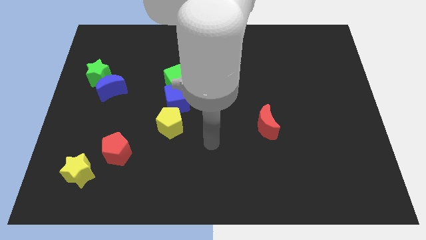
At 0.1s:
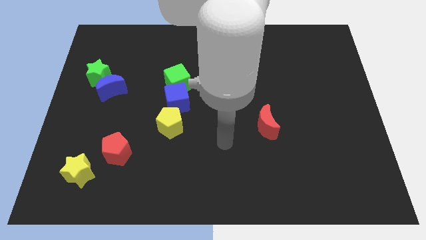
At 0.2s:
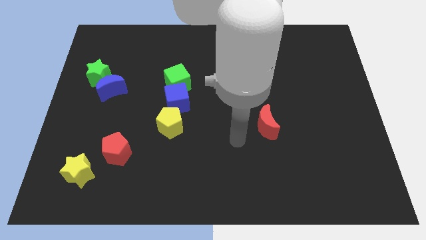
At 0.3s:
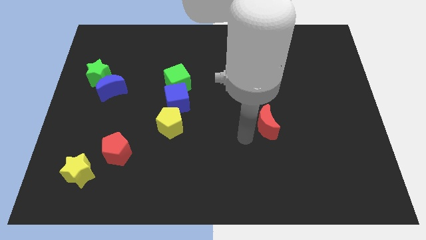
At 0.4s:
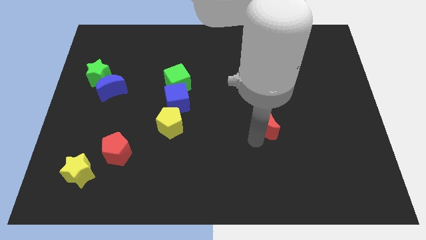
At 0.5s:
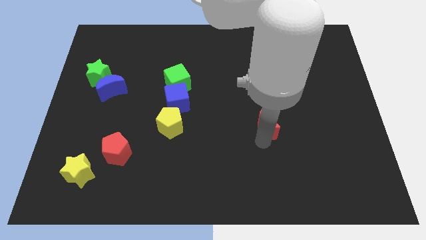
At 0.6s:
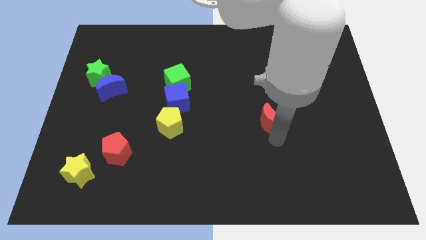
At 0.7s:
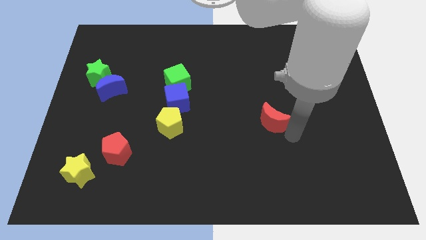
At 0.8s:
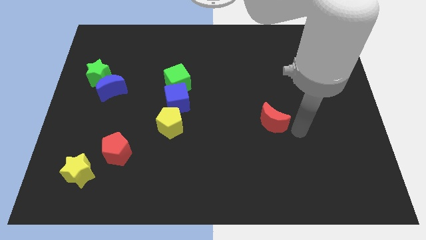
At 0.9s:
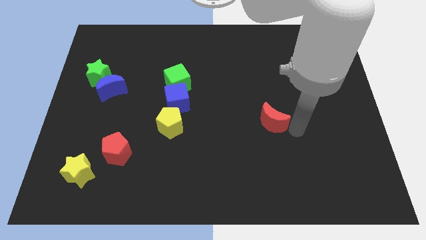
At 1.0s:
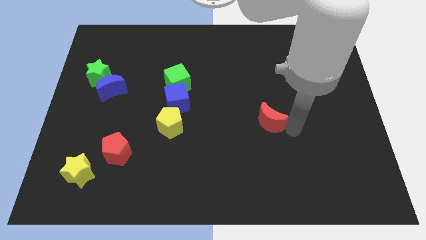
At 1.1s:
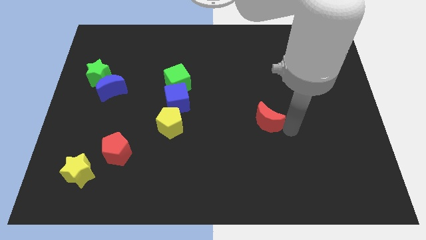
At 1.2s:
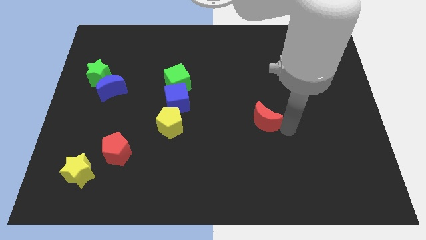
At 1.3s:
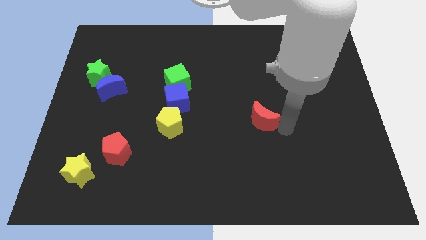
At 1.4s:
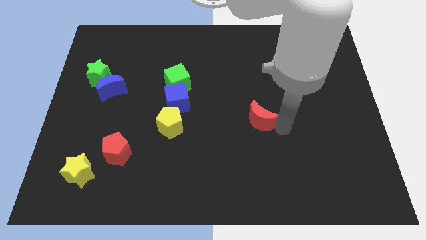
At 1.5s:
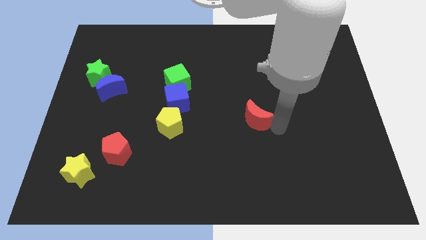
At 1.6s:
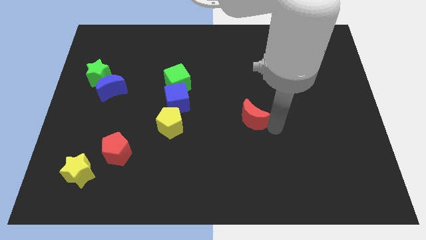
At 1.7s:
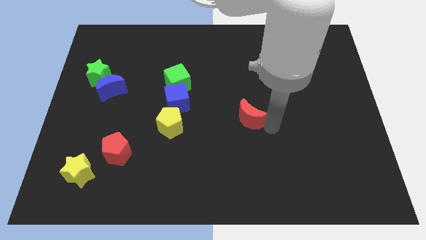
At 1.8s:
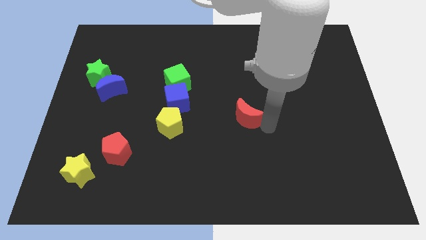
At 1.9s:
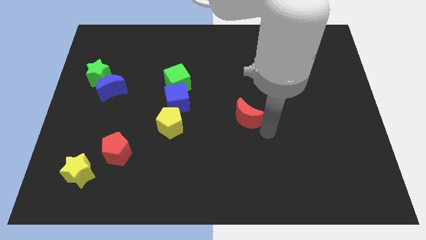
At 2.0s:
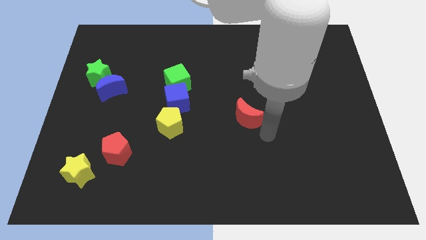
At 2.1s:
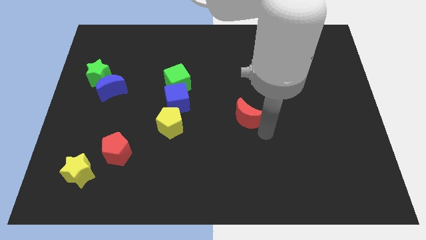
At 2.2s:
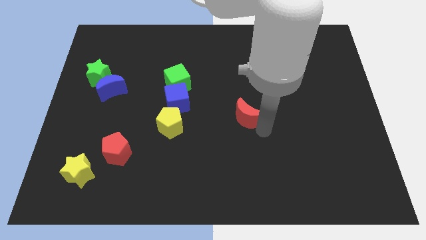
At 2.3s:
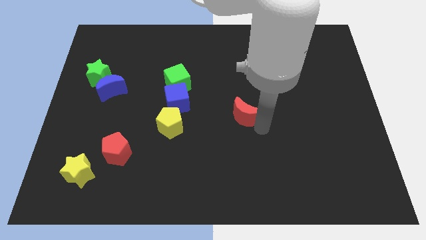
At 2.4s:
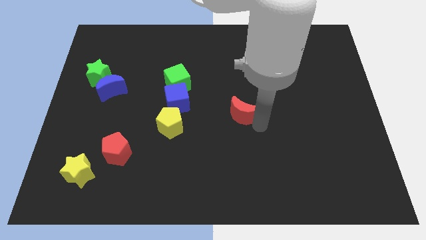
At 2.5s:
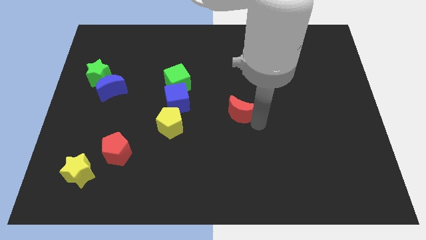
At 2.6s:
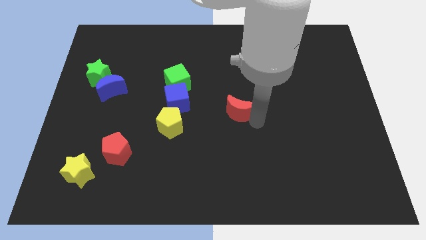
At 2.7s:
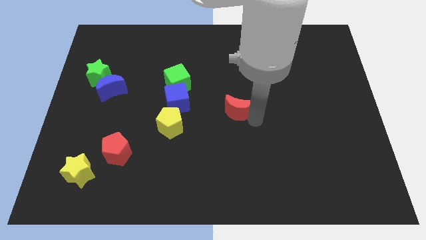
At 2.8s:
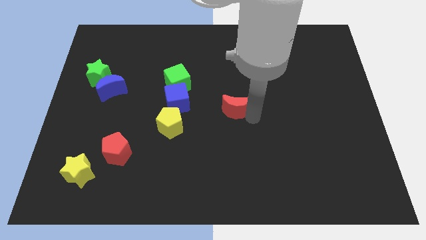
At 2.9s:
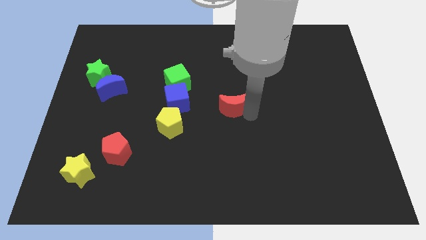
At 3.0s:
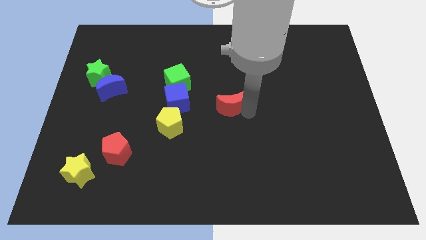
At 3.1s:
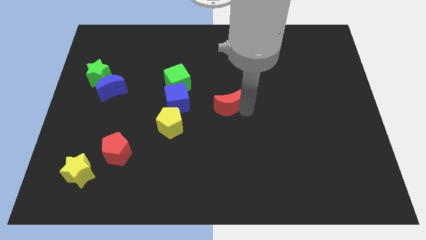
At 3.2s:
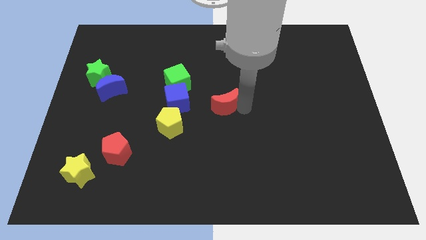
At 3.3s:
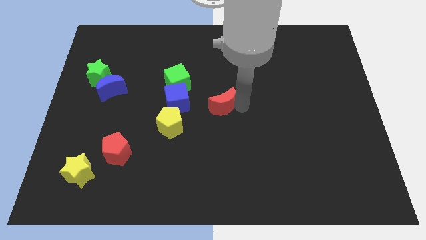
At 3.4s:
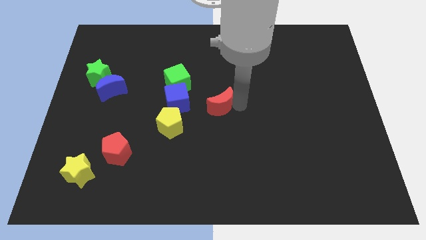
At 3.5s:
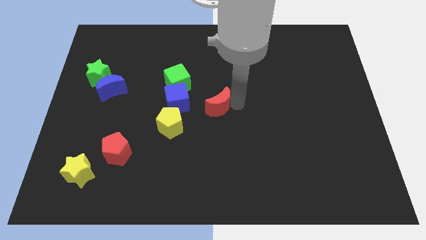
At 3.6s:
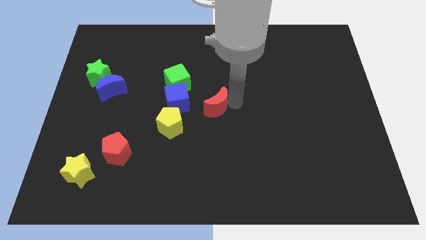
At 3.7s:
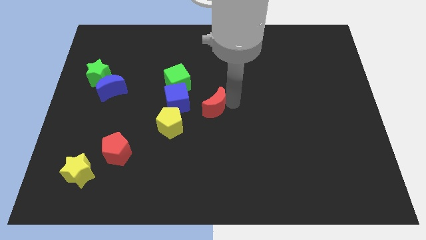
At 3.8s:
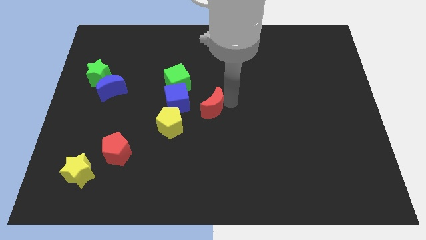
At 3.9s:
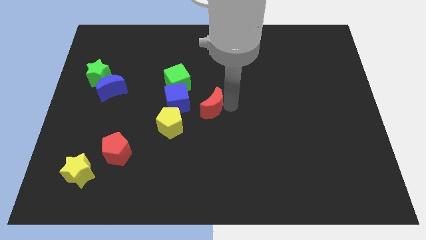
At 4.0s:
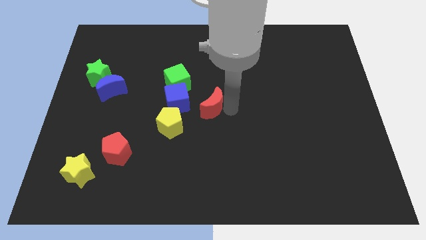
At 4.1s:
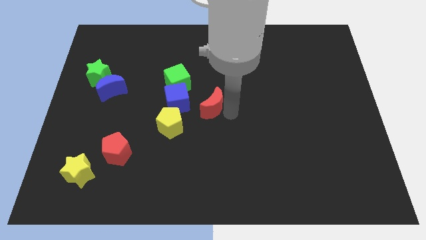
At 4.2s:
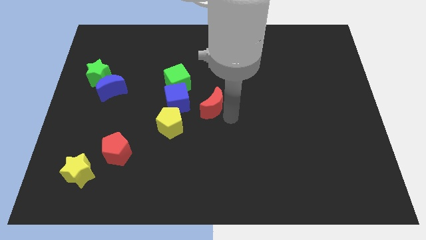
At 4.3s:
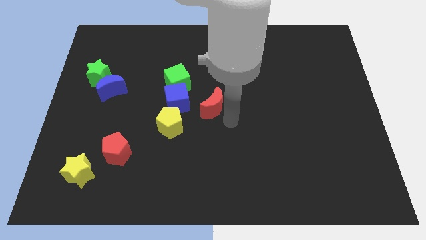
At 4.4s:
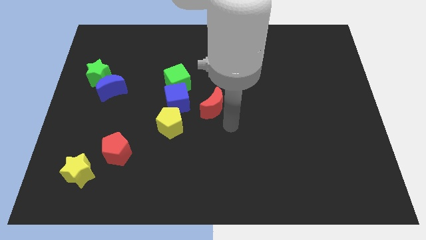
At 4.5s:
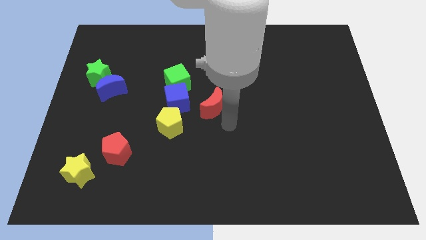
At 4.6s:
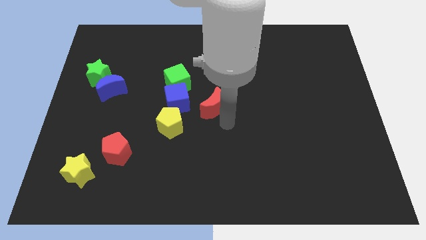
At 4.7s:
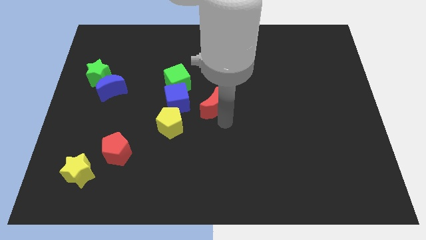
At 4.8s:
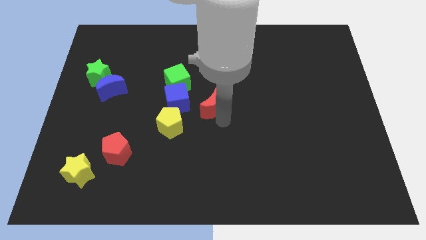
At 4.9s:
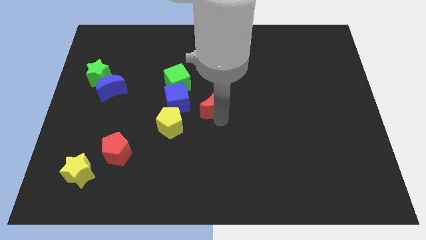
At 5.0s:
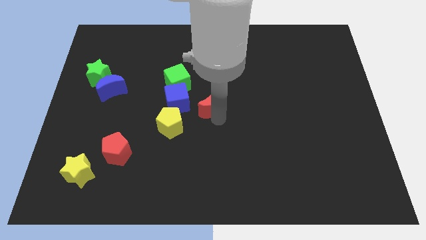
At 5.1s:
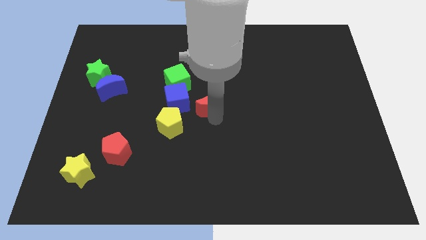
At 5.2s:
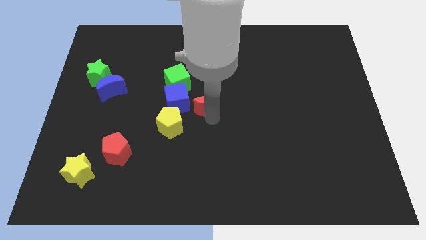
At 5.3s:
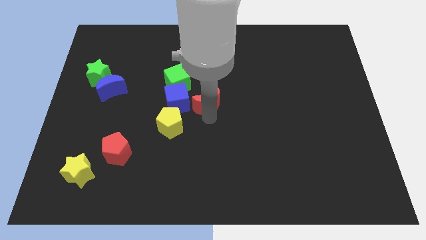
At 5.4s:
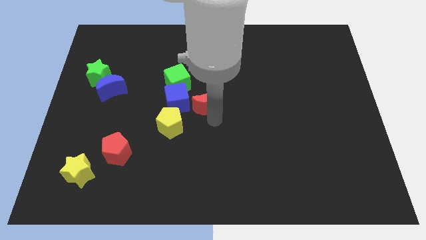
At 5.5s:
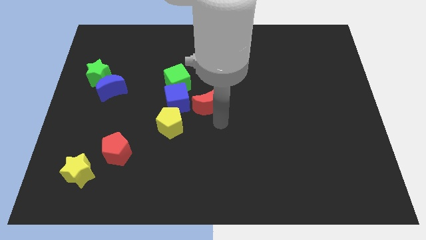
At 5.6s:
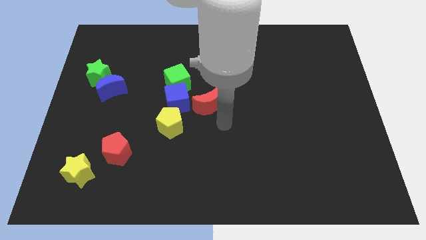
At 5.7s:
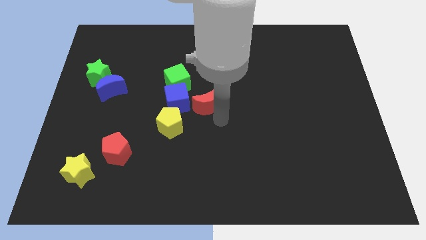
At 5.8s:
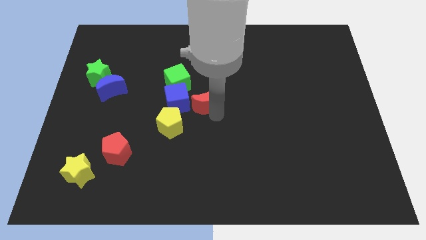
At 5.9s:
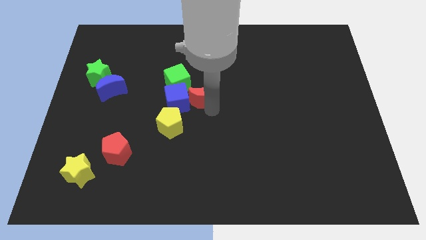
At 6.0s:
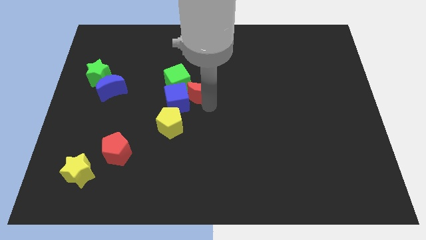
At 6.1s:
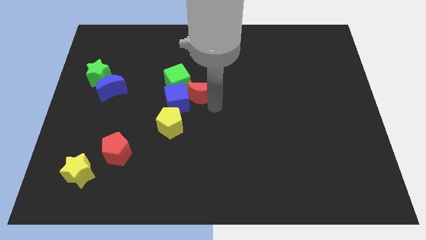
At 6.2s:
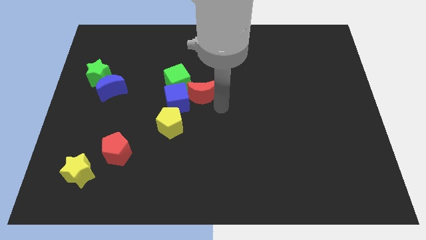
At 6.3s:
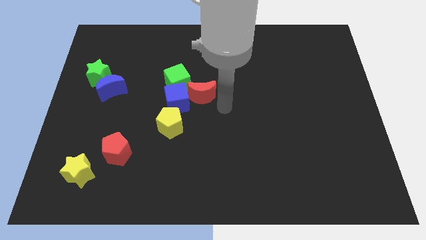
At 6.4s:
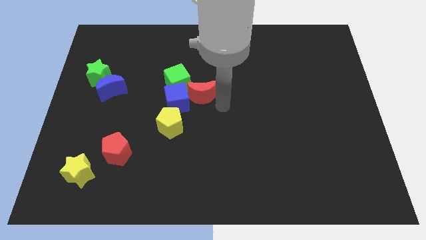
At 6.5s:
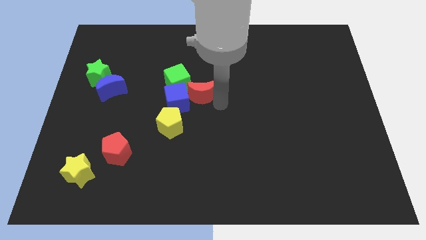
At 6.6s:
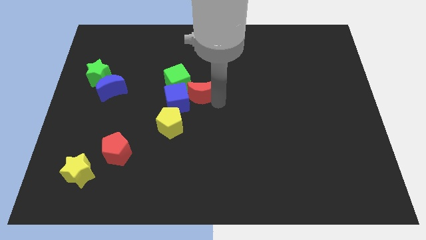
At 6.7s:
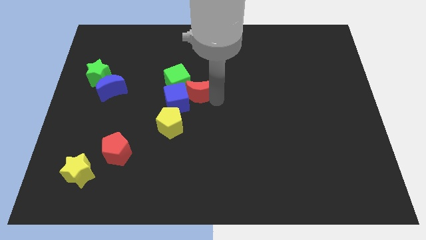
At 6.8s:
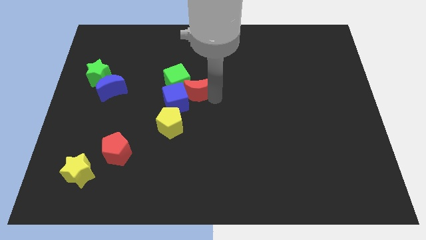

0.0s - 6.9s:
put the red moon towards the green cube

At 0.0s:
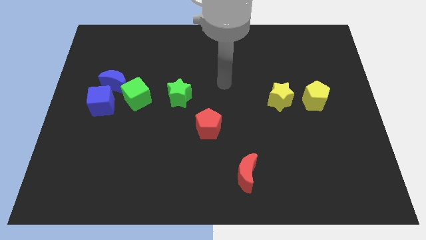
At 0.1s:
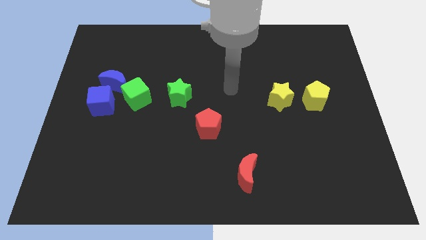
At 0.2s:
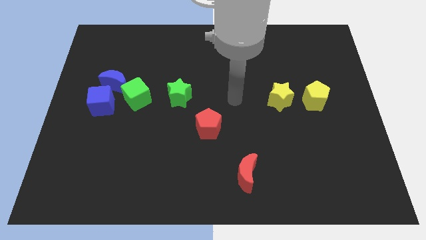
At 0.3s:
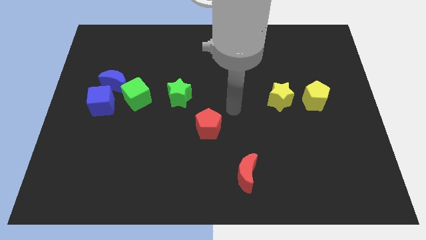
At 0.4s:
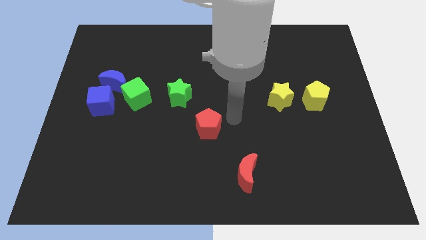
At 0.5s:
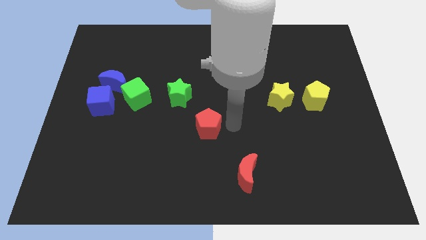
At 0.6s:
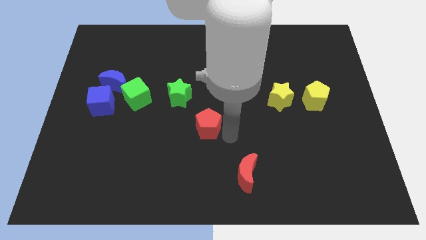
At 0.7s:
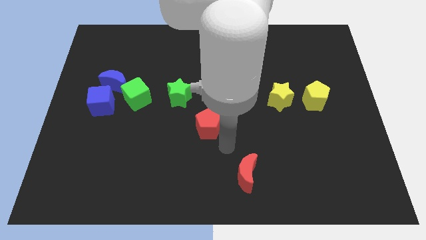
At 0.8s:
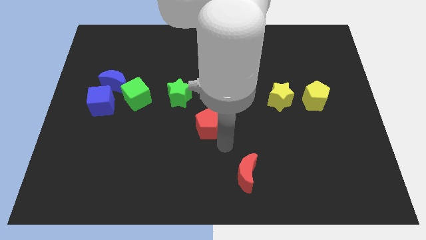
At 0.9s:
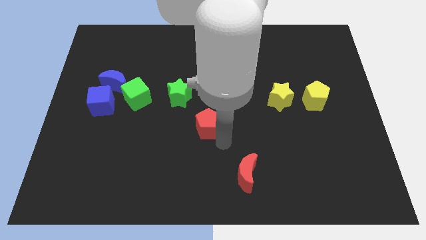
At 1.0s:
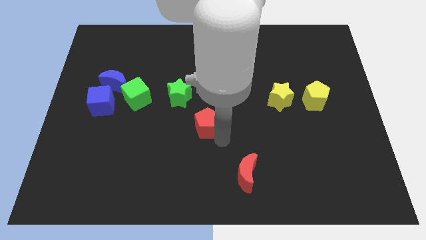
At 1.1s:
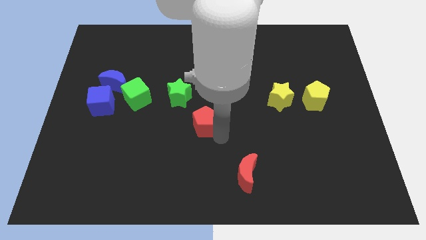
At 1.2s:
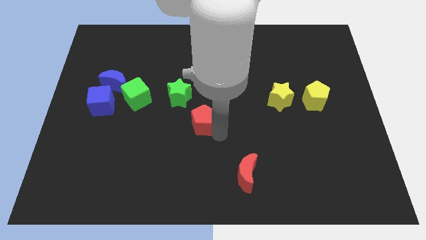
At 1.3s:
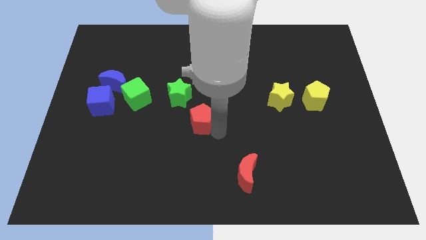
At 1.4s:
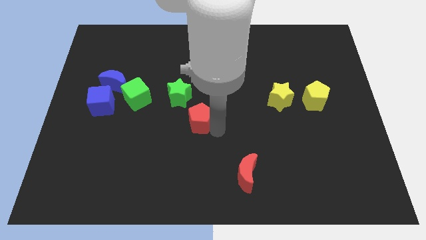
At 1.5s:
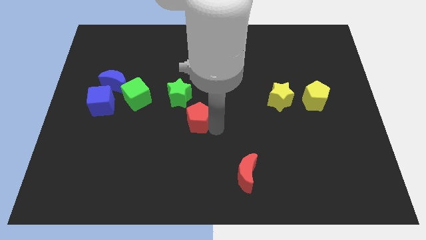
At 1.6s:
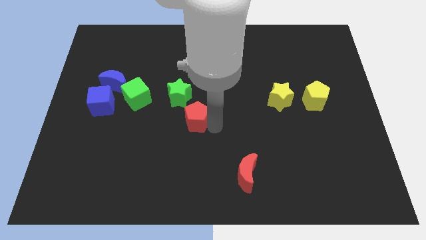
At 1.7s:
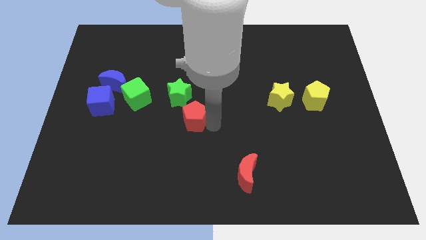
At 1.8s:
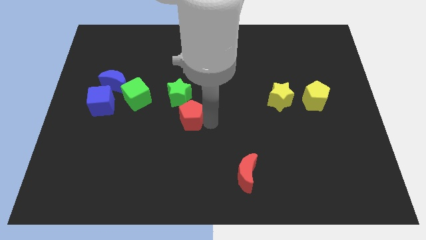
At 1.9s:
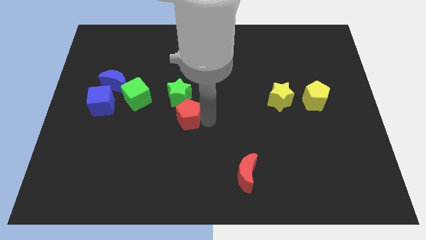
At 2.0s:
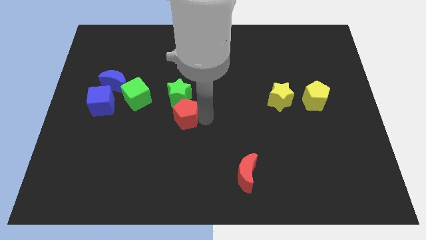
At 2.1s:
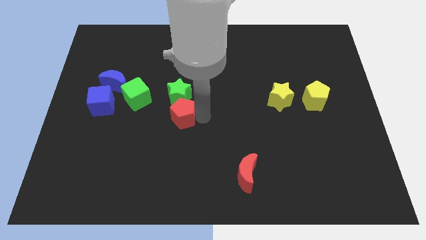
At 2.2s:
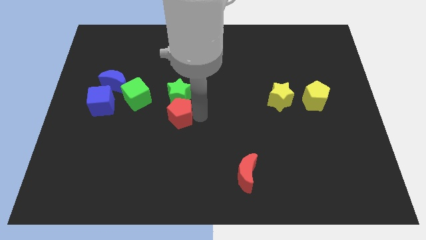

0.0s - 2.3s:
put the red pentagon to the green star
